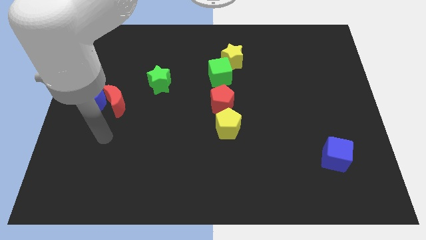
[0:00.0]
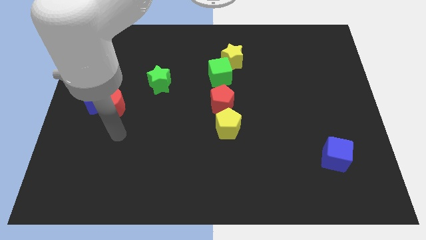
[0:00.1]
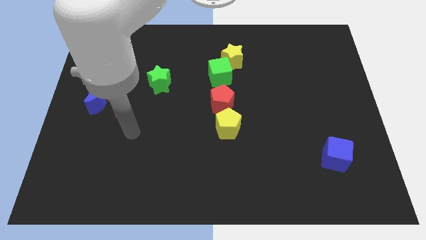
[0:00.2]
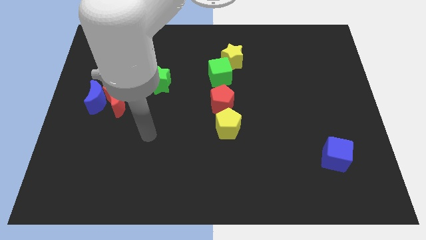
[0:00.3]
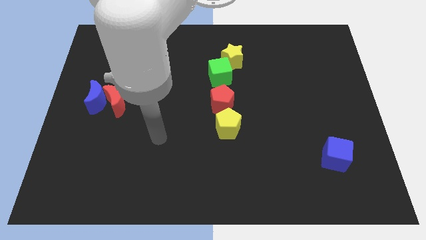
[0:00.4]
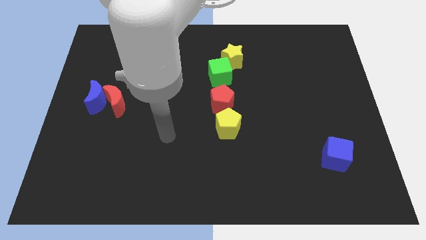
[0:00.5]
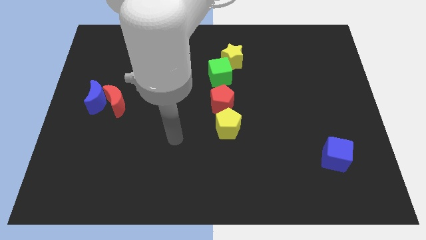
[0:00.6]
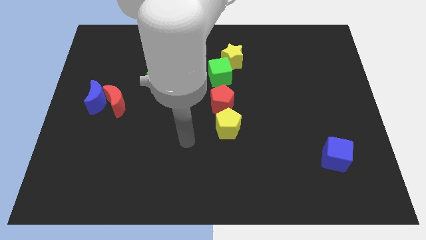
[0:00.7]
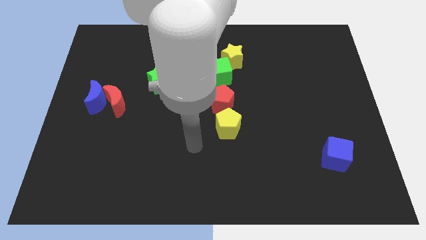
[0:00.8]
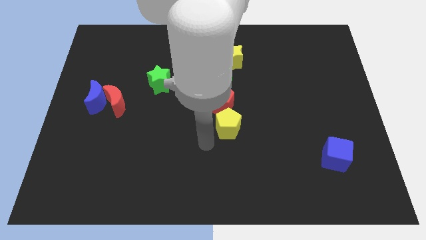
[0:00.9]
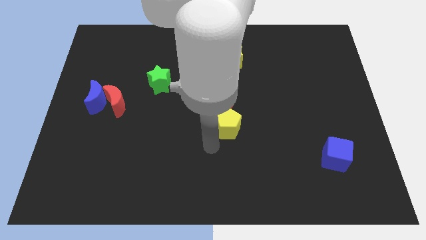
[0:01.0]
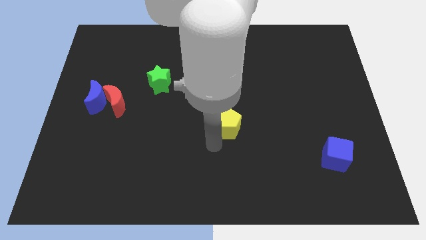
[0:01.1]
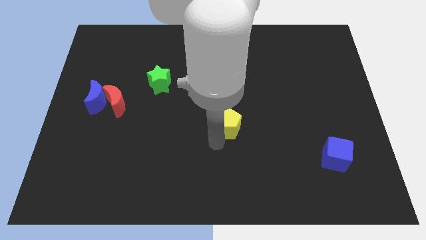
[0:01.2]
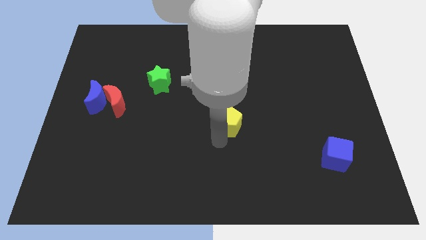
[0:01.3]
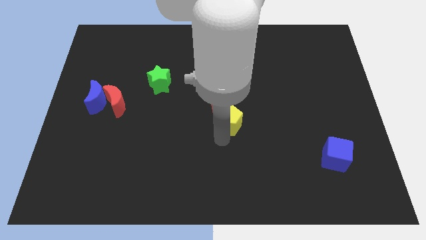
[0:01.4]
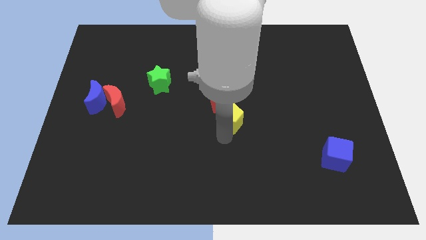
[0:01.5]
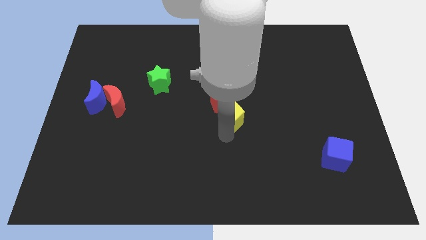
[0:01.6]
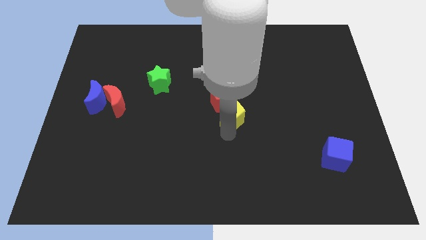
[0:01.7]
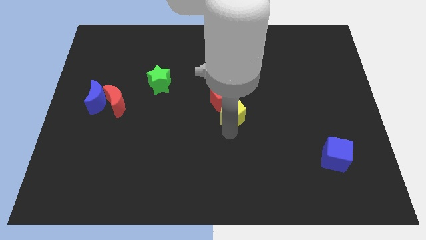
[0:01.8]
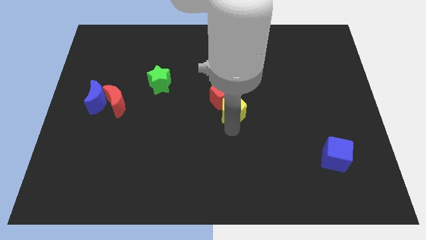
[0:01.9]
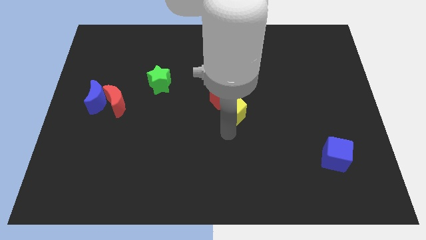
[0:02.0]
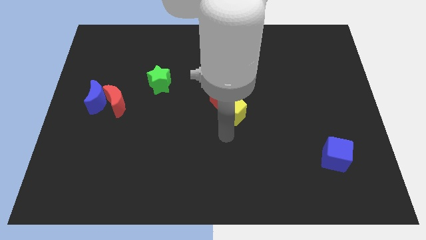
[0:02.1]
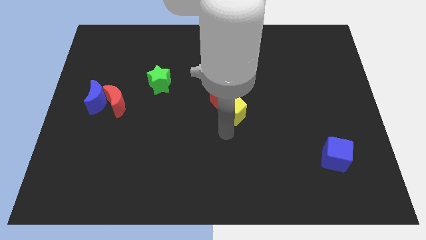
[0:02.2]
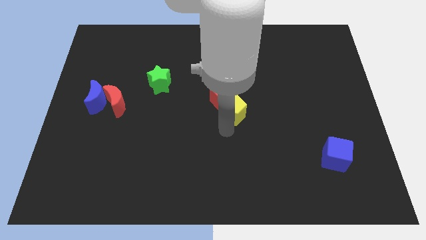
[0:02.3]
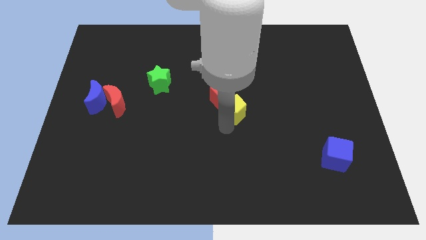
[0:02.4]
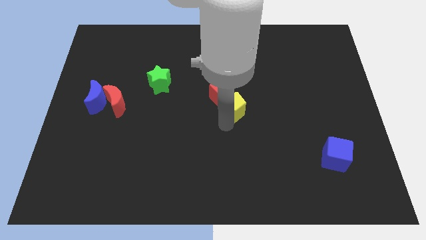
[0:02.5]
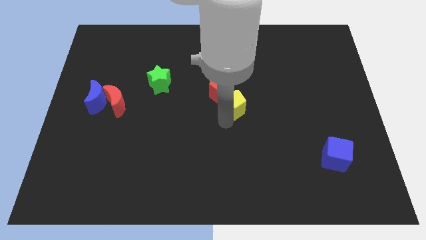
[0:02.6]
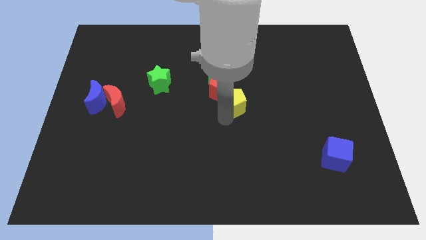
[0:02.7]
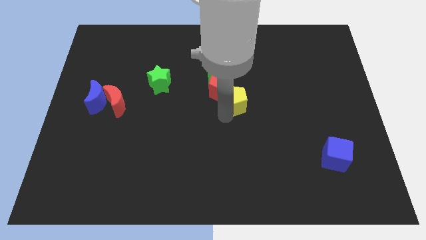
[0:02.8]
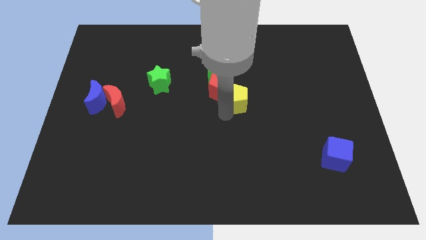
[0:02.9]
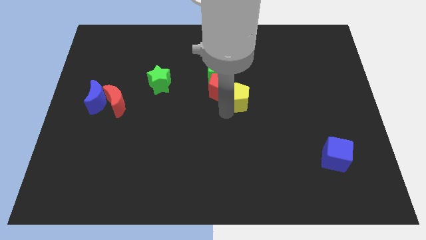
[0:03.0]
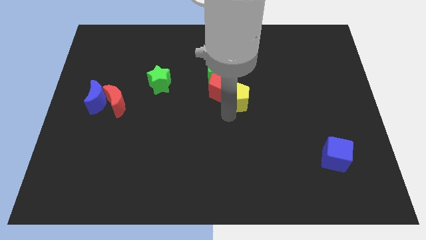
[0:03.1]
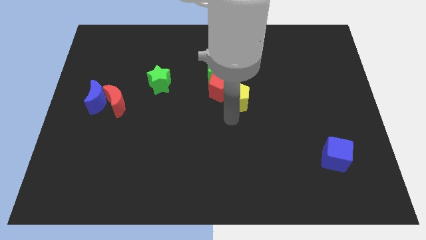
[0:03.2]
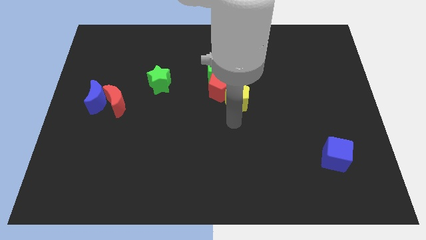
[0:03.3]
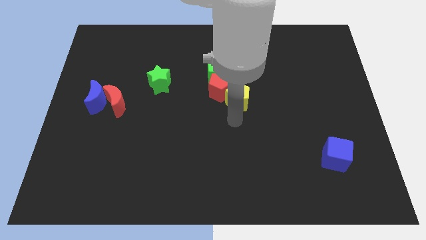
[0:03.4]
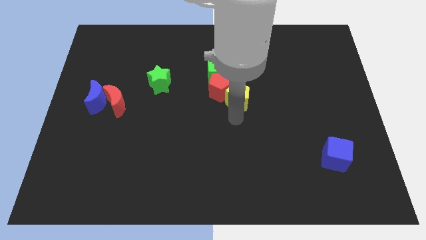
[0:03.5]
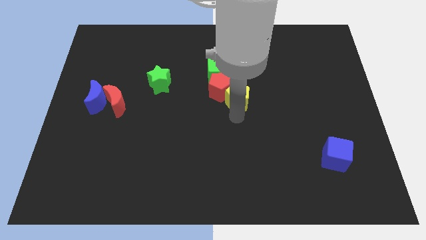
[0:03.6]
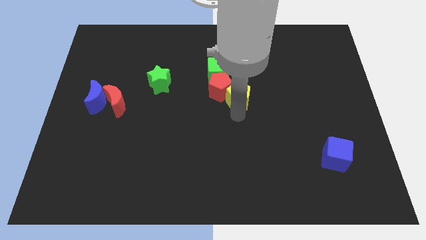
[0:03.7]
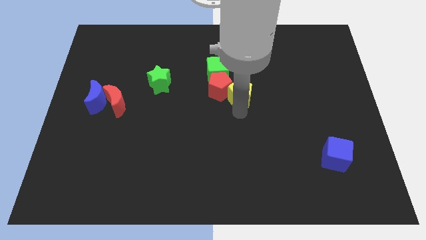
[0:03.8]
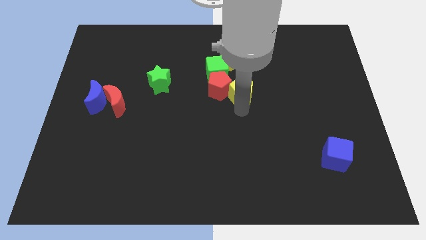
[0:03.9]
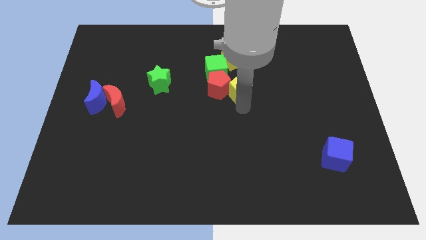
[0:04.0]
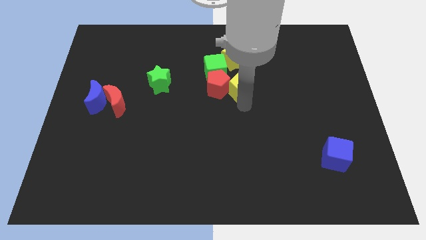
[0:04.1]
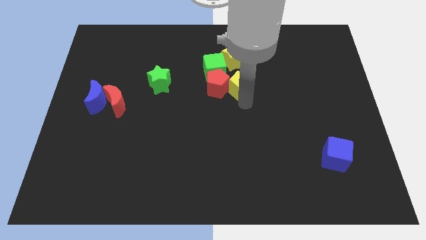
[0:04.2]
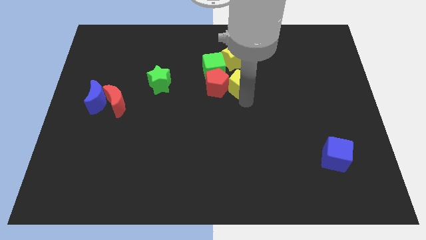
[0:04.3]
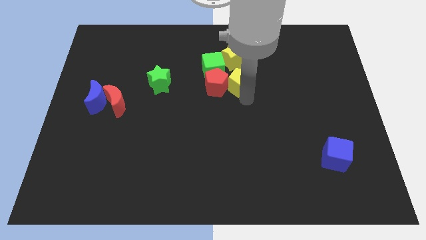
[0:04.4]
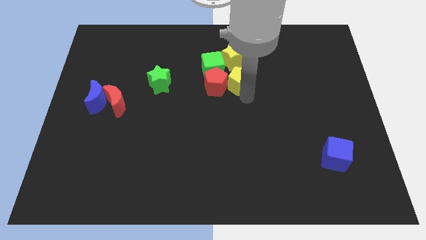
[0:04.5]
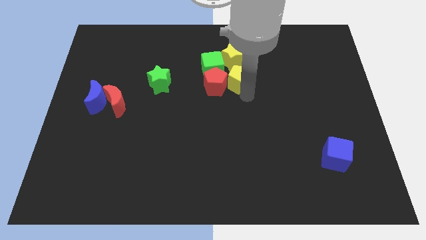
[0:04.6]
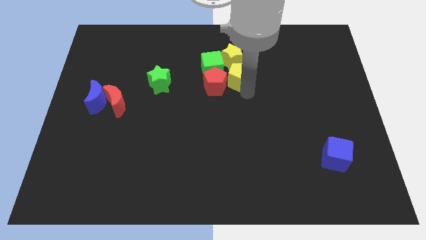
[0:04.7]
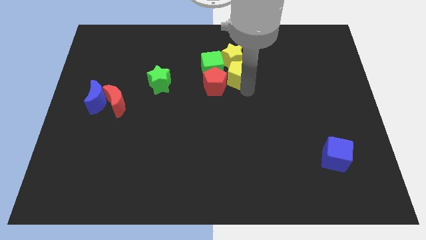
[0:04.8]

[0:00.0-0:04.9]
move the yellow pentagon to the yellow star

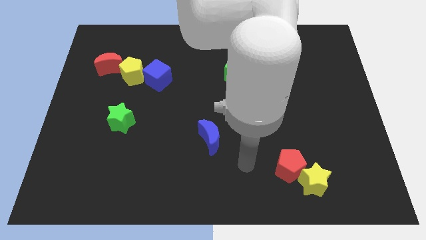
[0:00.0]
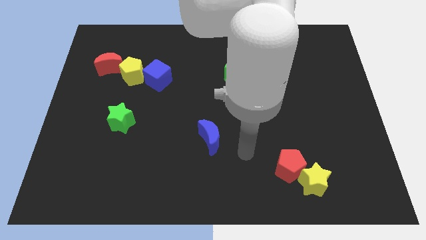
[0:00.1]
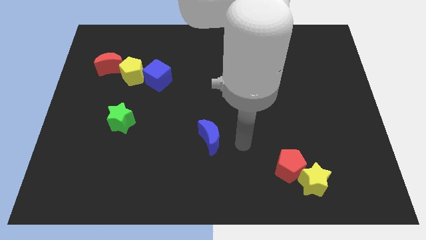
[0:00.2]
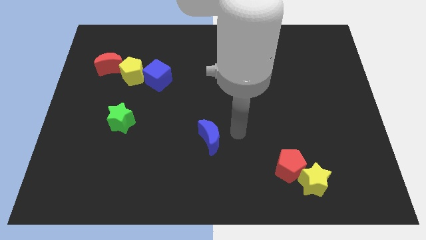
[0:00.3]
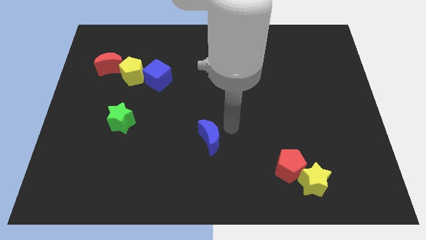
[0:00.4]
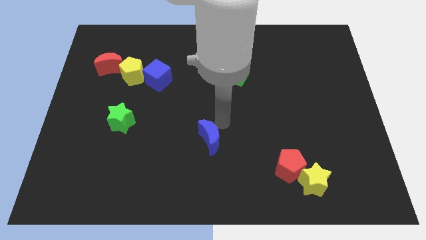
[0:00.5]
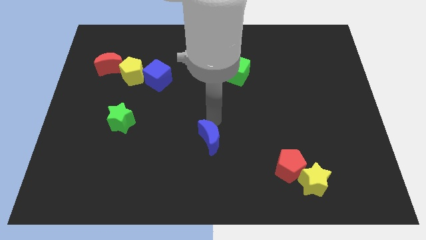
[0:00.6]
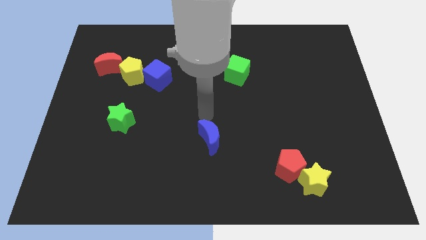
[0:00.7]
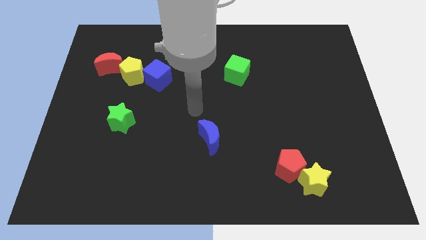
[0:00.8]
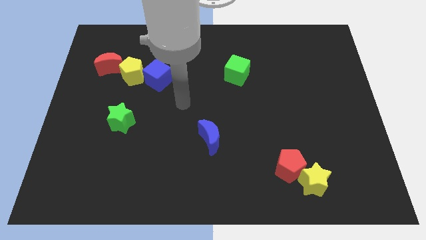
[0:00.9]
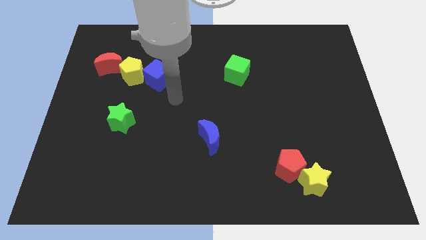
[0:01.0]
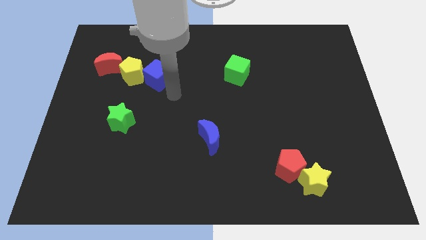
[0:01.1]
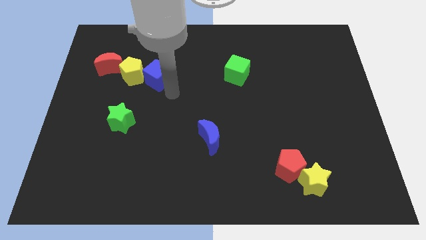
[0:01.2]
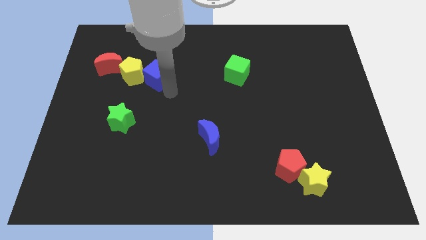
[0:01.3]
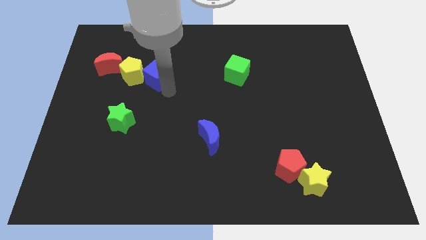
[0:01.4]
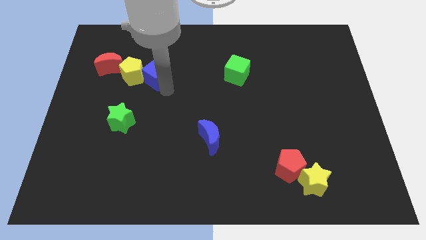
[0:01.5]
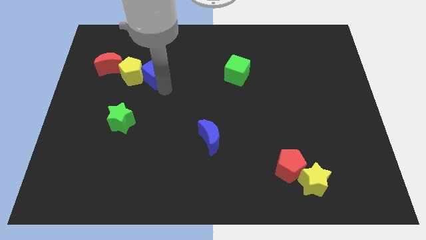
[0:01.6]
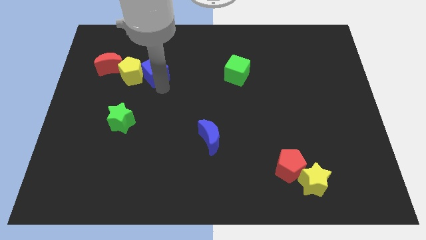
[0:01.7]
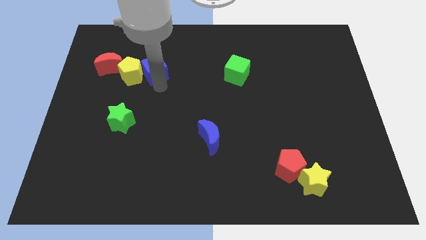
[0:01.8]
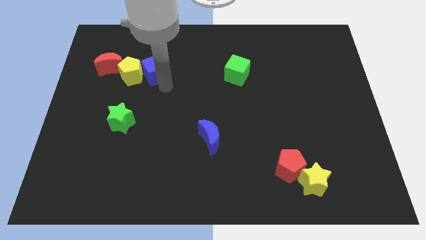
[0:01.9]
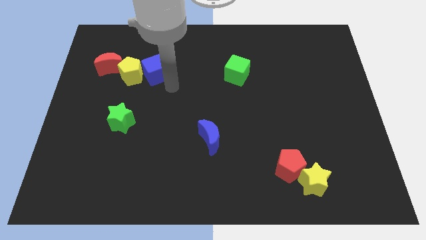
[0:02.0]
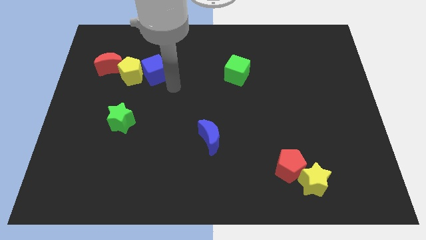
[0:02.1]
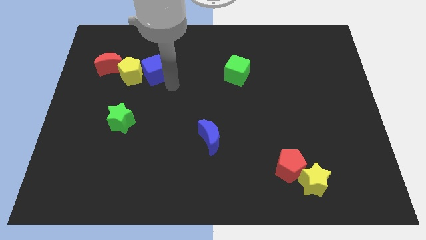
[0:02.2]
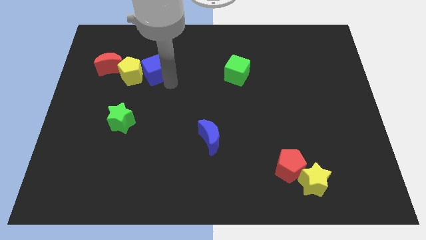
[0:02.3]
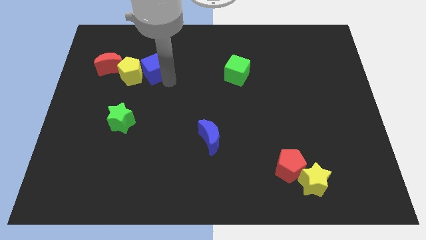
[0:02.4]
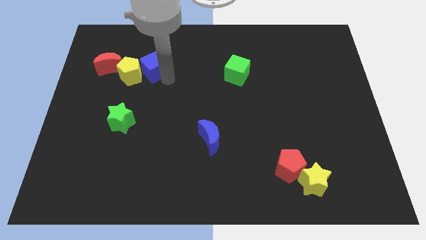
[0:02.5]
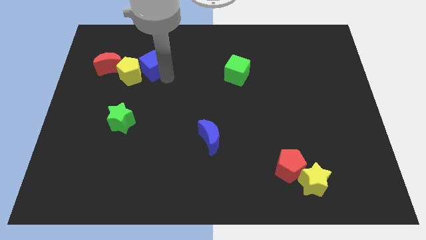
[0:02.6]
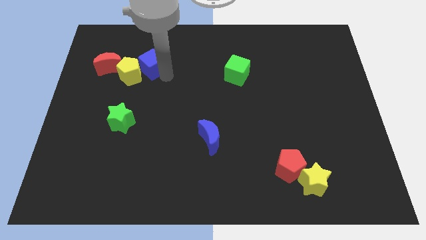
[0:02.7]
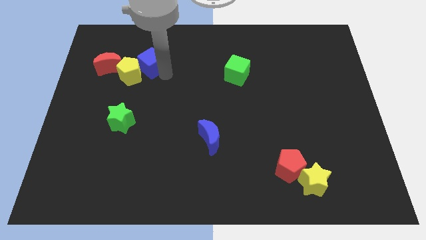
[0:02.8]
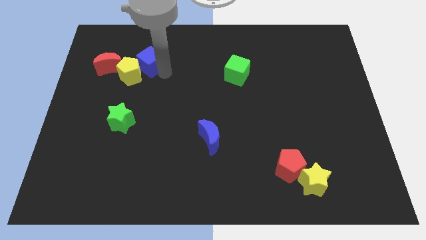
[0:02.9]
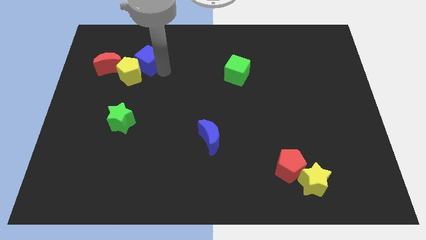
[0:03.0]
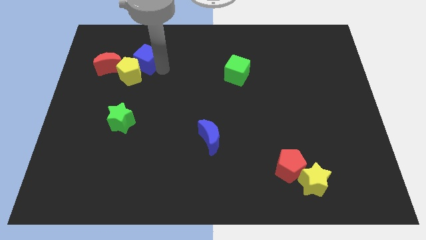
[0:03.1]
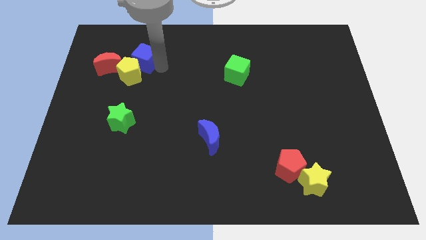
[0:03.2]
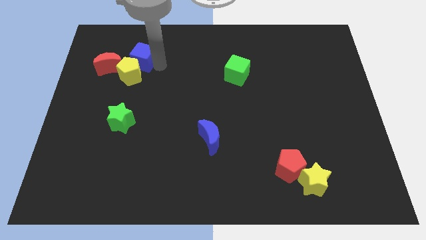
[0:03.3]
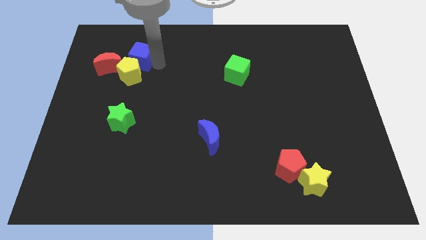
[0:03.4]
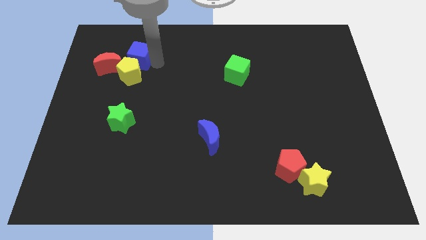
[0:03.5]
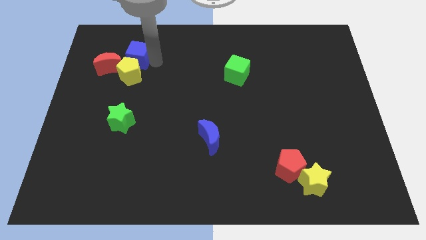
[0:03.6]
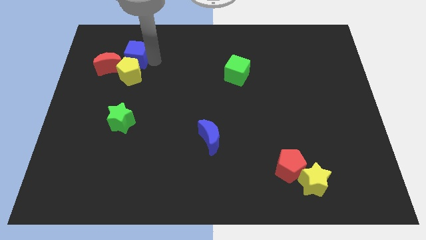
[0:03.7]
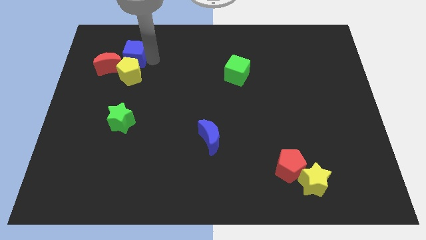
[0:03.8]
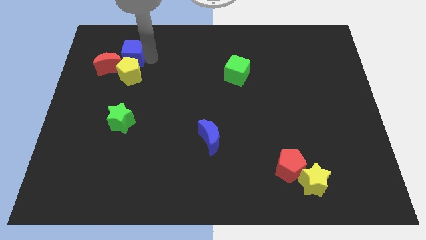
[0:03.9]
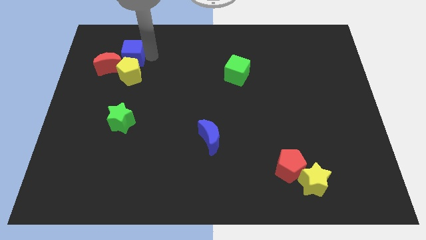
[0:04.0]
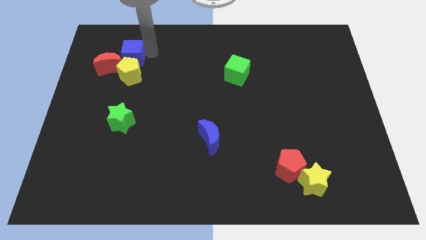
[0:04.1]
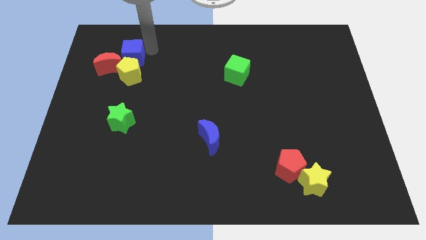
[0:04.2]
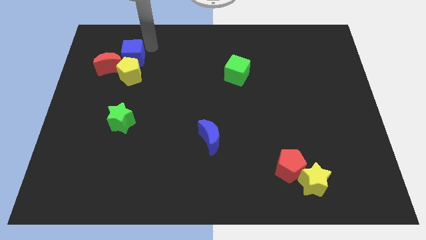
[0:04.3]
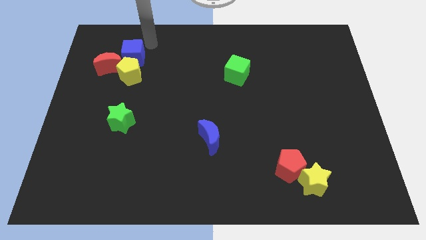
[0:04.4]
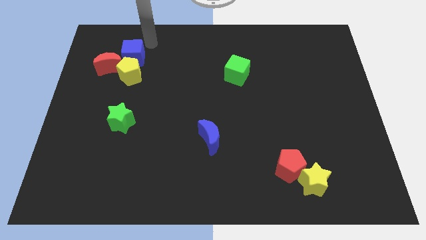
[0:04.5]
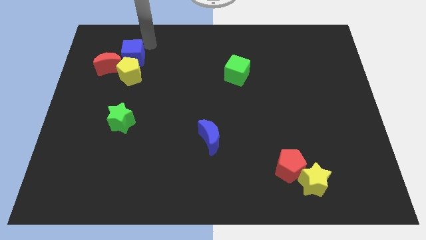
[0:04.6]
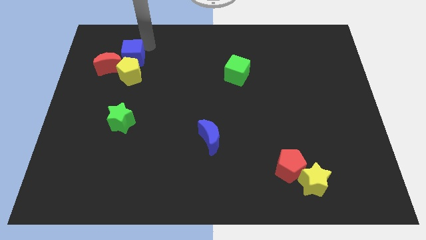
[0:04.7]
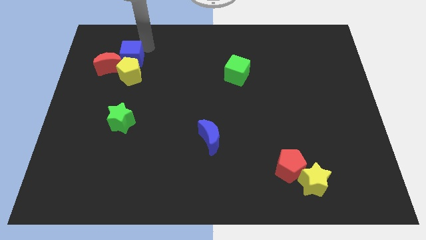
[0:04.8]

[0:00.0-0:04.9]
put the blue cube to the red moon
